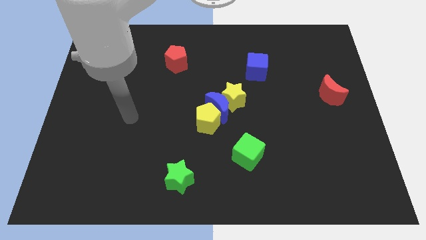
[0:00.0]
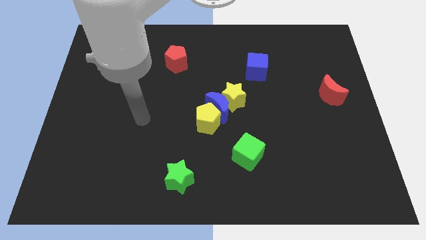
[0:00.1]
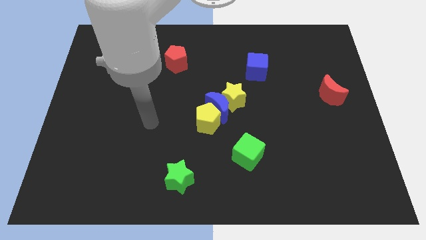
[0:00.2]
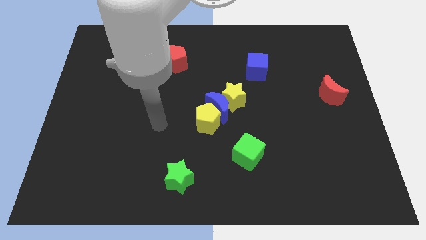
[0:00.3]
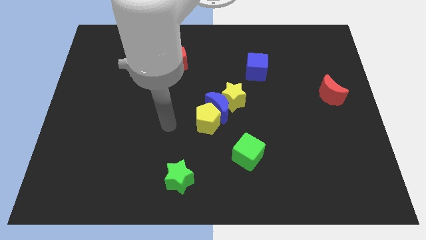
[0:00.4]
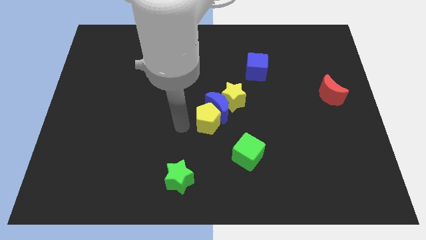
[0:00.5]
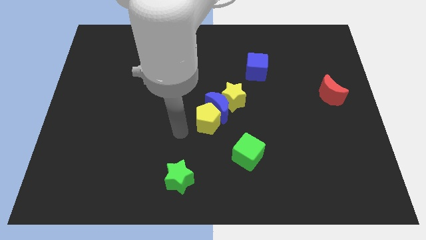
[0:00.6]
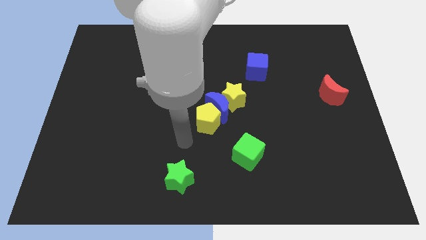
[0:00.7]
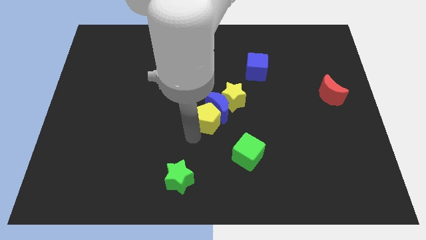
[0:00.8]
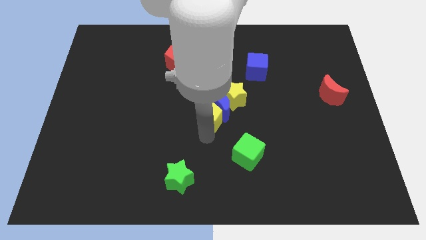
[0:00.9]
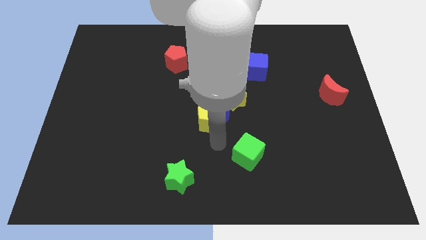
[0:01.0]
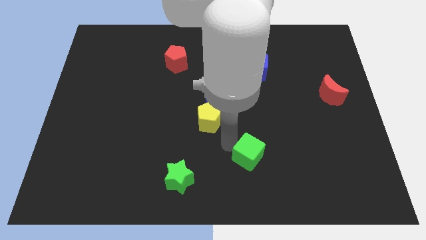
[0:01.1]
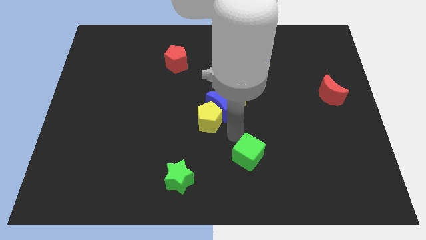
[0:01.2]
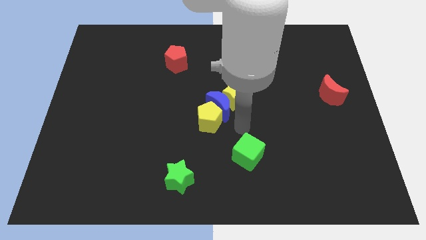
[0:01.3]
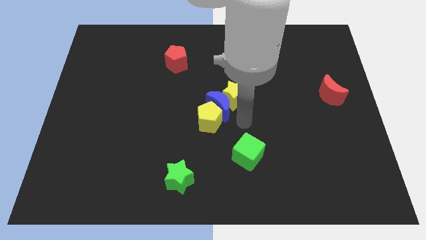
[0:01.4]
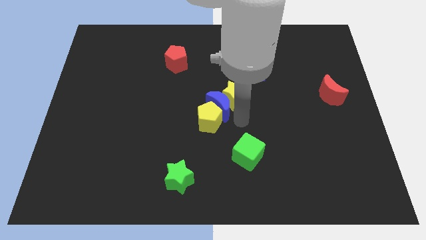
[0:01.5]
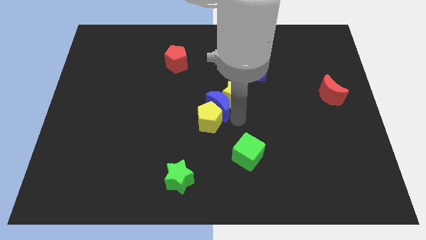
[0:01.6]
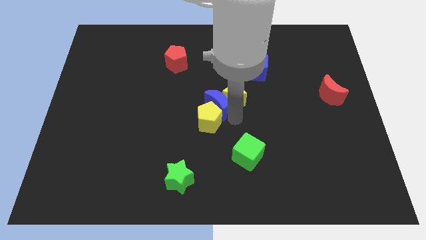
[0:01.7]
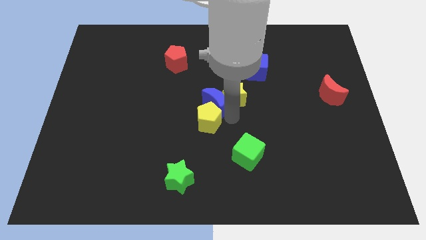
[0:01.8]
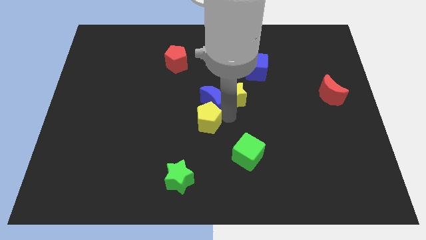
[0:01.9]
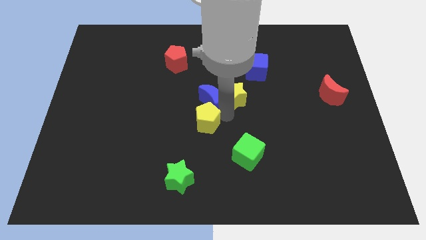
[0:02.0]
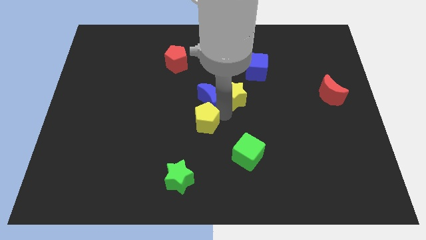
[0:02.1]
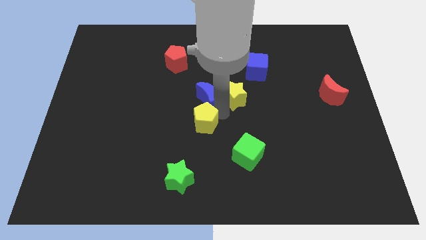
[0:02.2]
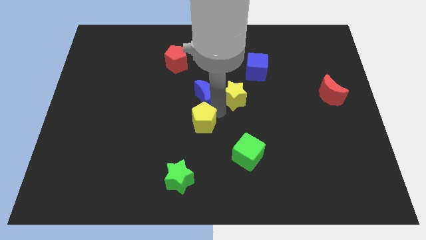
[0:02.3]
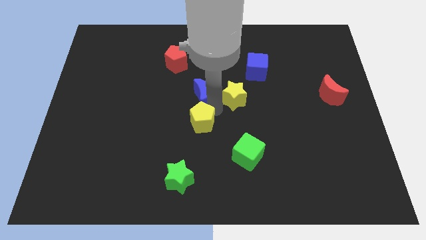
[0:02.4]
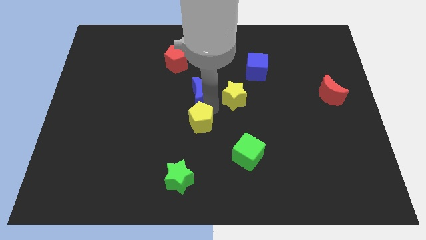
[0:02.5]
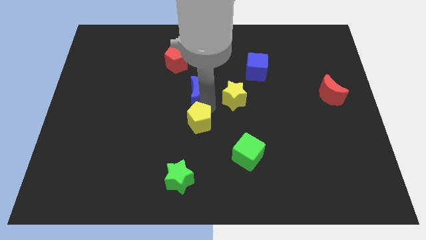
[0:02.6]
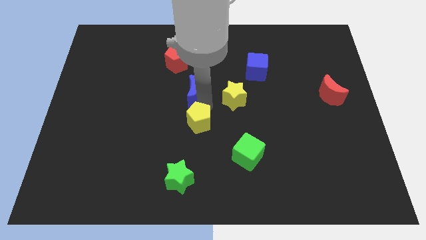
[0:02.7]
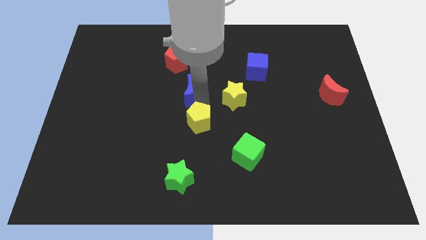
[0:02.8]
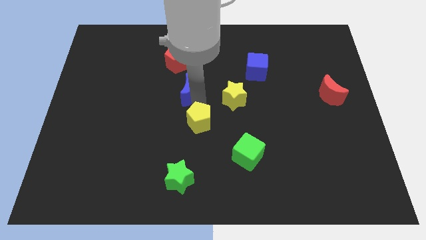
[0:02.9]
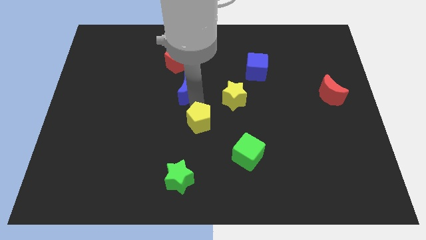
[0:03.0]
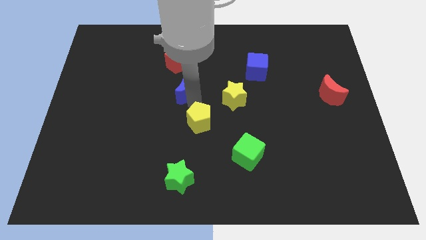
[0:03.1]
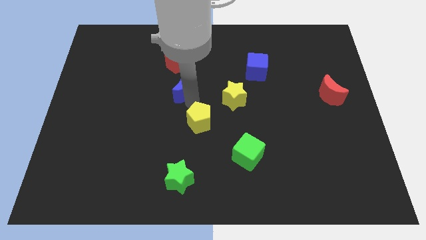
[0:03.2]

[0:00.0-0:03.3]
separate the blue moon from the yellow pentagon and yellow star

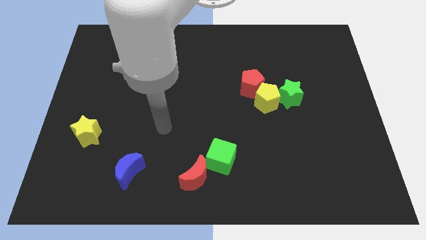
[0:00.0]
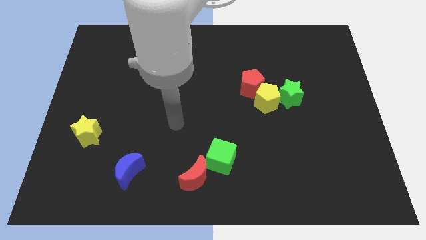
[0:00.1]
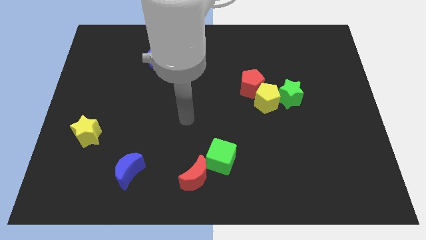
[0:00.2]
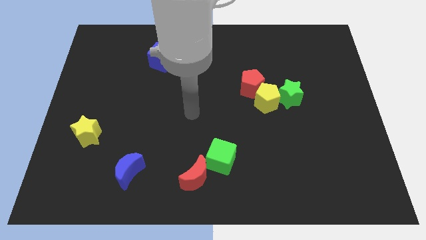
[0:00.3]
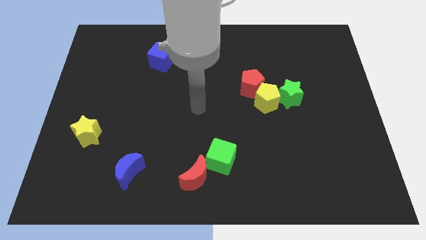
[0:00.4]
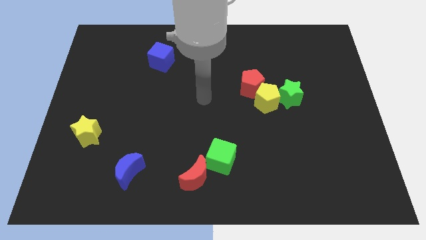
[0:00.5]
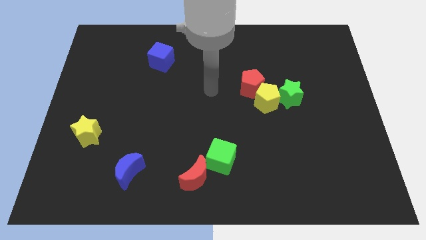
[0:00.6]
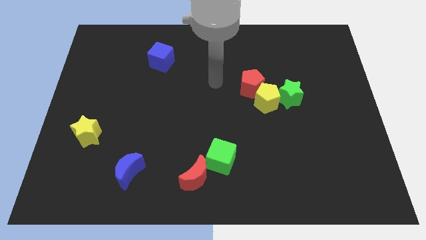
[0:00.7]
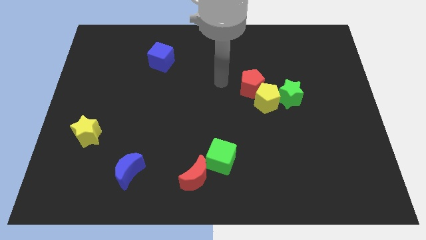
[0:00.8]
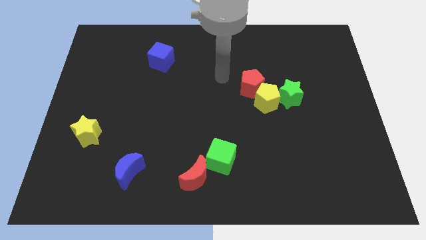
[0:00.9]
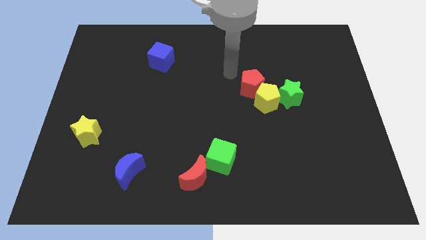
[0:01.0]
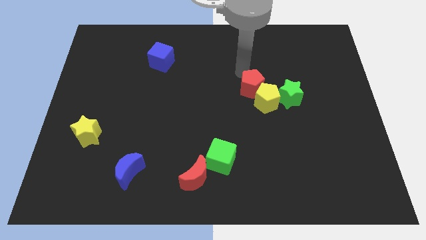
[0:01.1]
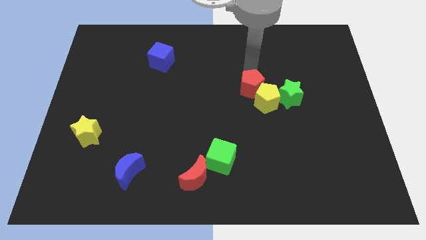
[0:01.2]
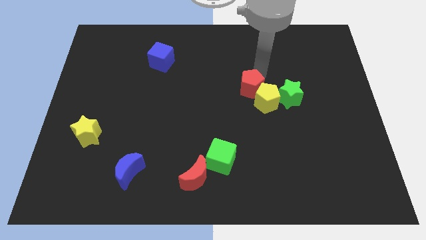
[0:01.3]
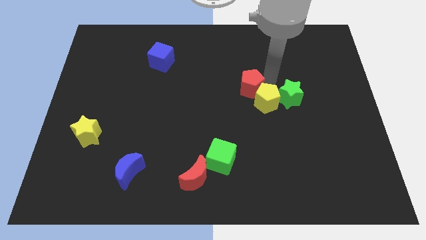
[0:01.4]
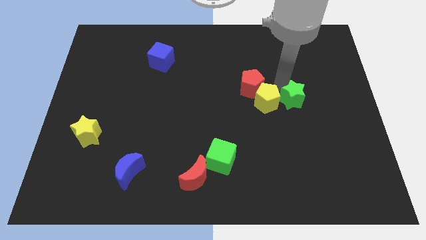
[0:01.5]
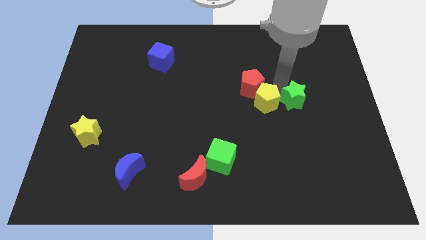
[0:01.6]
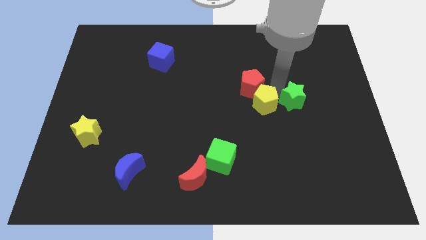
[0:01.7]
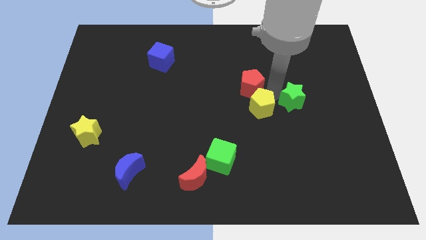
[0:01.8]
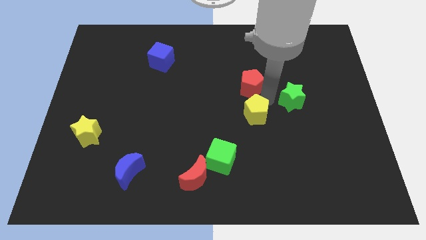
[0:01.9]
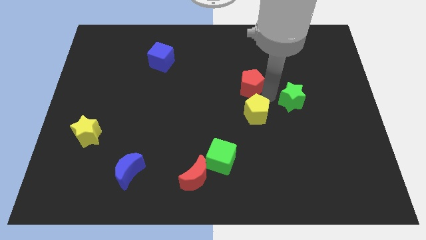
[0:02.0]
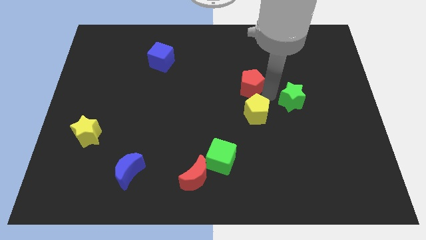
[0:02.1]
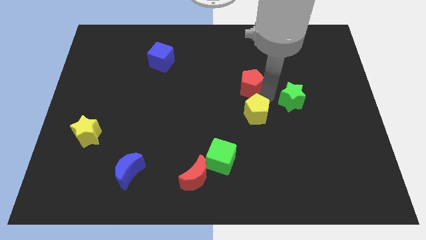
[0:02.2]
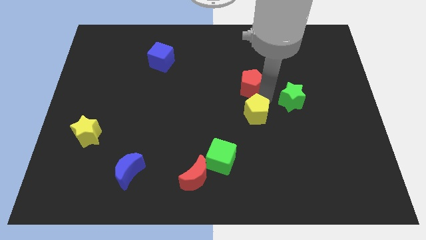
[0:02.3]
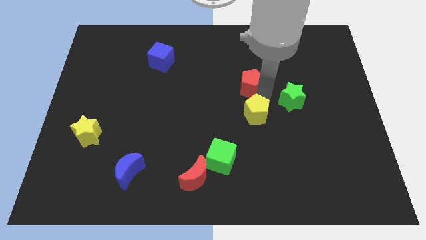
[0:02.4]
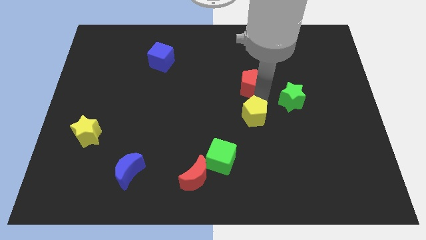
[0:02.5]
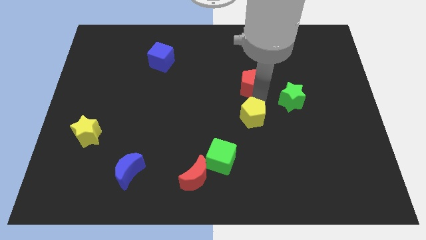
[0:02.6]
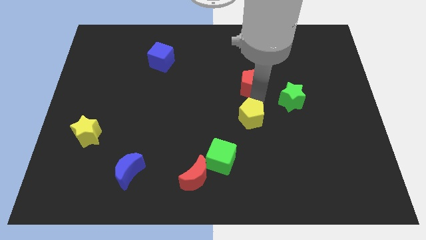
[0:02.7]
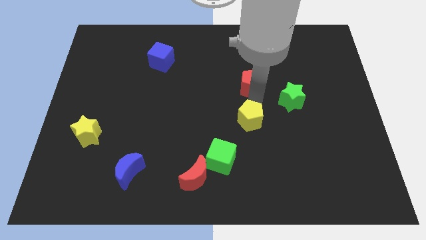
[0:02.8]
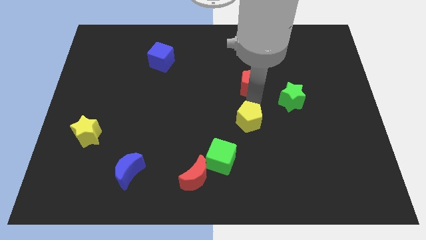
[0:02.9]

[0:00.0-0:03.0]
separate the yellow pentagon from the green star and red pentagon

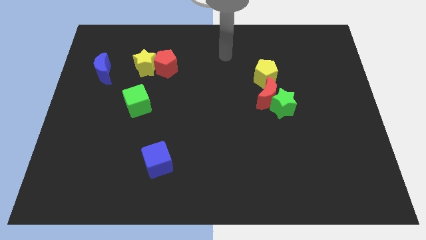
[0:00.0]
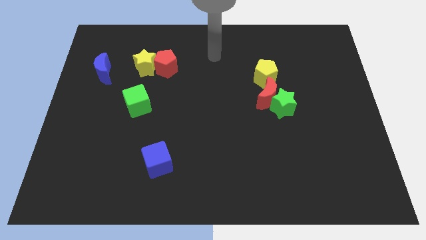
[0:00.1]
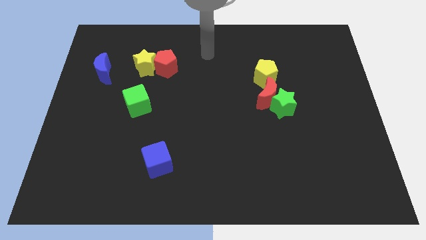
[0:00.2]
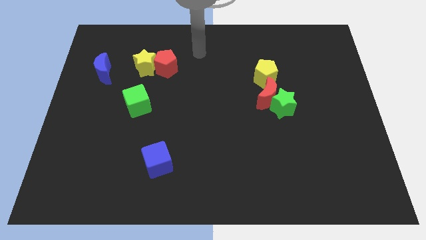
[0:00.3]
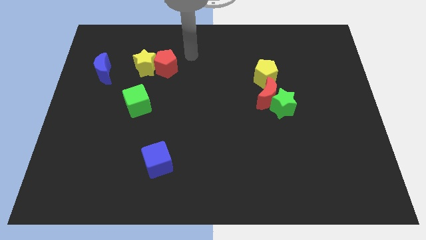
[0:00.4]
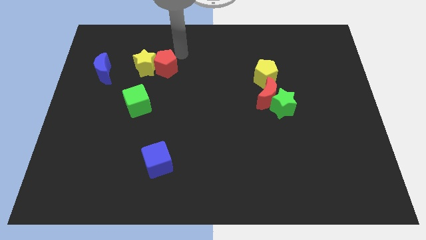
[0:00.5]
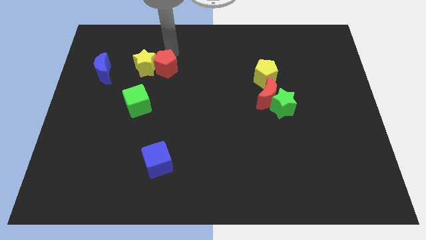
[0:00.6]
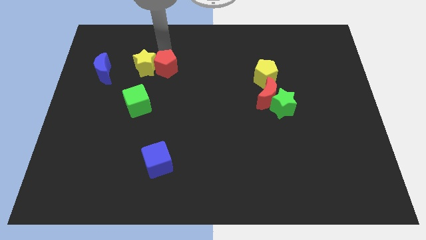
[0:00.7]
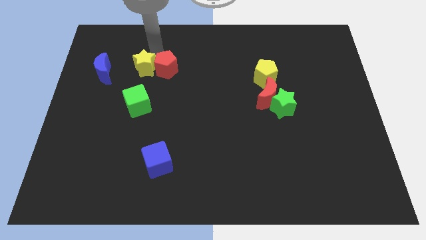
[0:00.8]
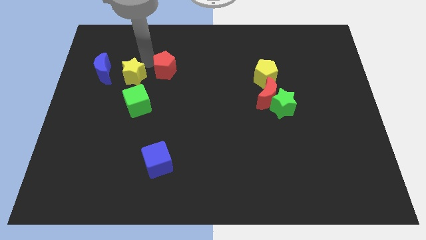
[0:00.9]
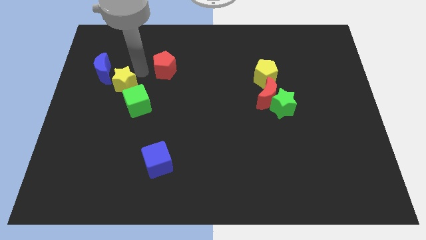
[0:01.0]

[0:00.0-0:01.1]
move the red pentagon away from the yellow star

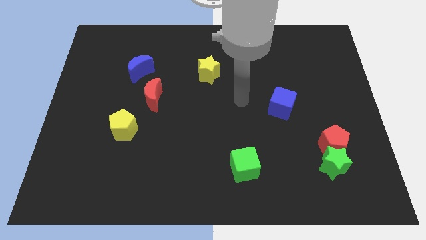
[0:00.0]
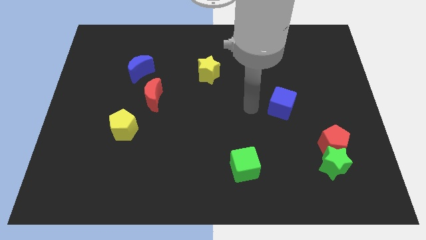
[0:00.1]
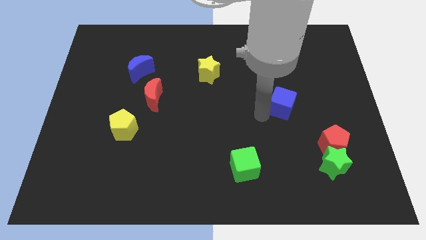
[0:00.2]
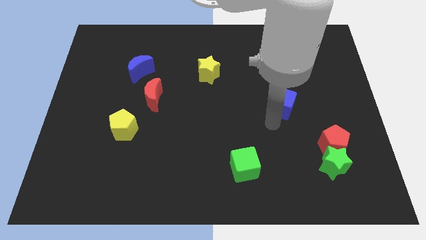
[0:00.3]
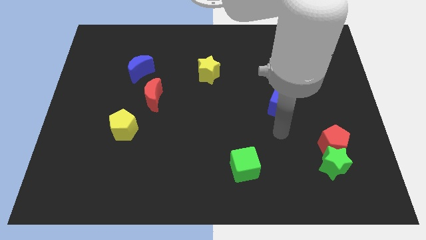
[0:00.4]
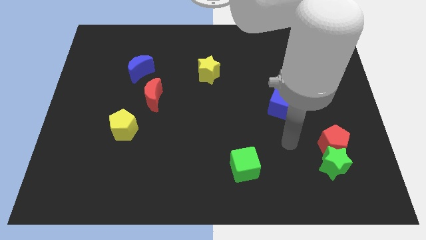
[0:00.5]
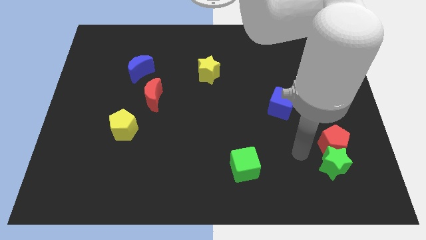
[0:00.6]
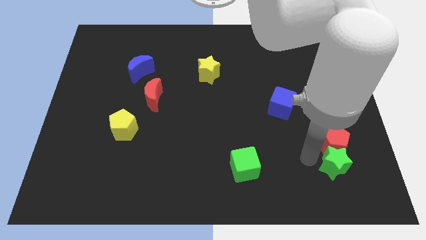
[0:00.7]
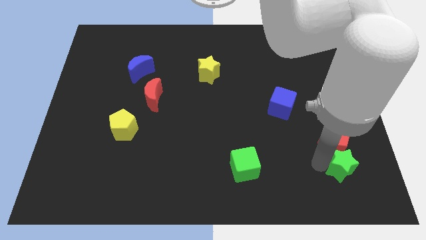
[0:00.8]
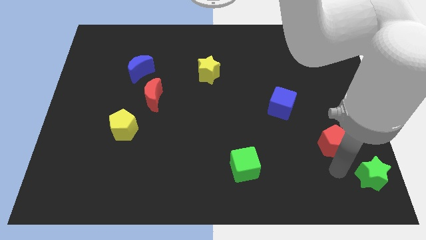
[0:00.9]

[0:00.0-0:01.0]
move the red pentagon away from the green star

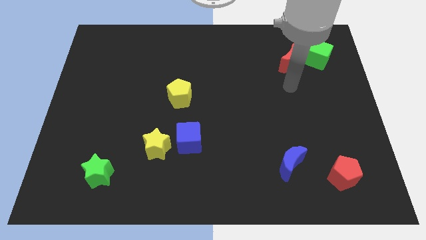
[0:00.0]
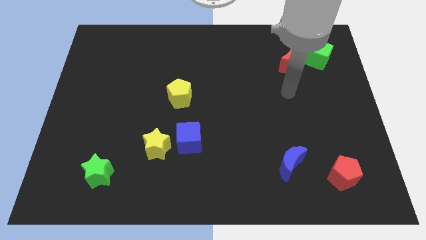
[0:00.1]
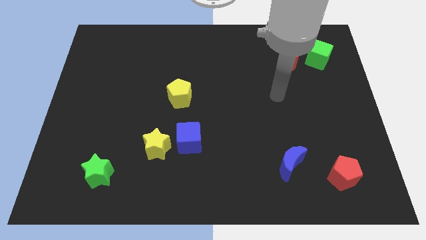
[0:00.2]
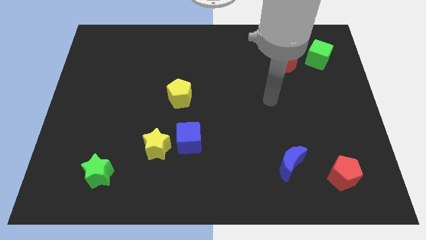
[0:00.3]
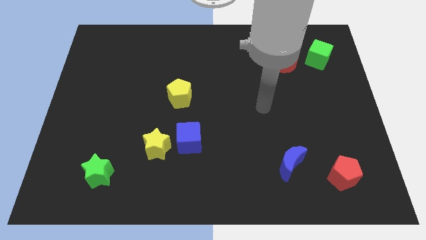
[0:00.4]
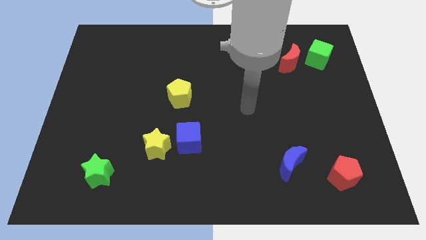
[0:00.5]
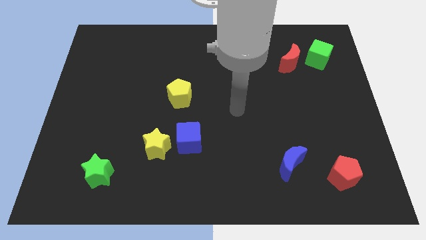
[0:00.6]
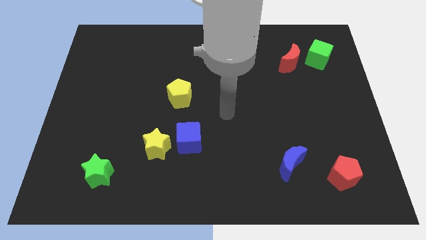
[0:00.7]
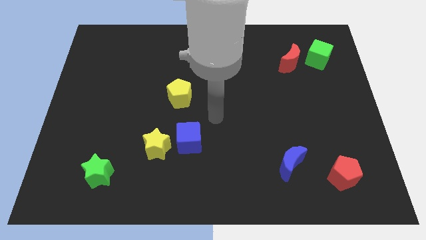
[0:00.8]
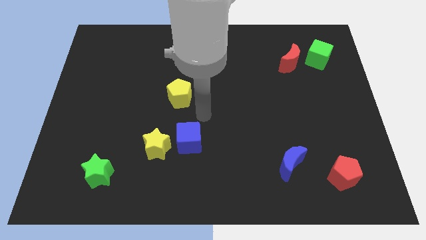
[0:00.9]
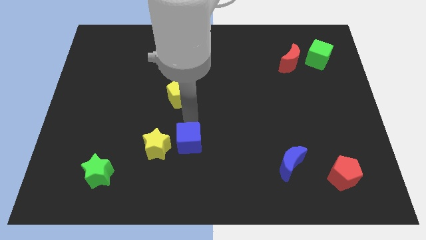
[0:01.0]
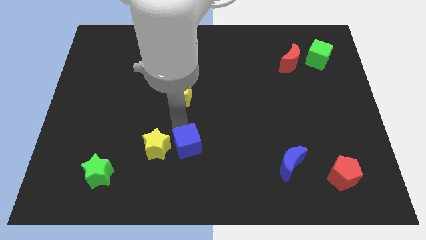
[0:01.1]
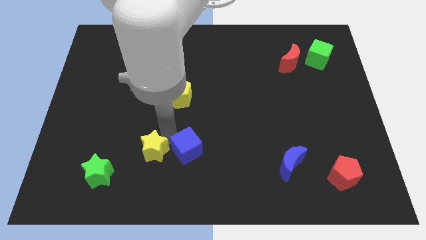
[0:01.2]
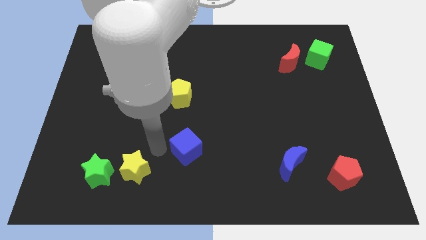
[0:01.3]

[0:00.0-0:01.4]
move the blue cube away from the yellow star
